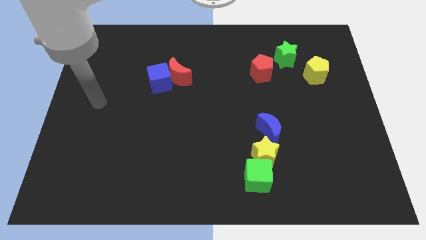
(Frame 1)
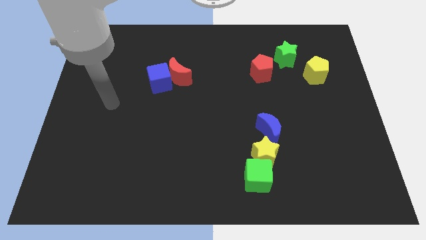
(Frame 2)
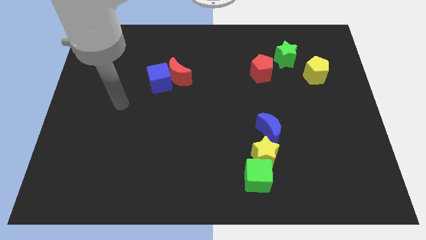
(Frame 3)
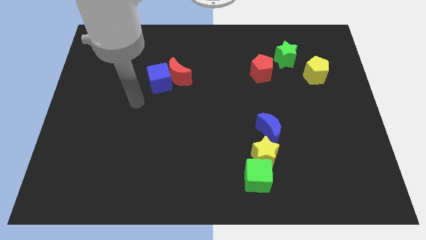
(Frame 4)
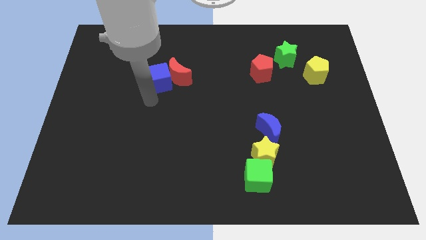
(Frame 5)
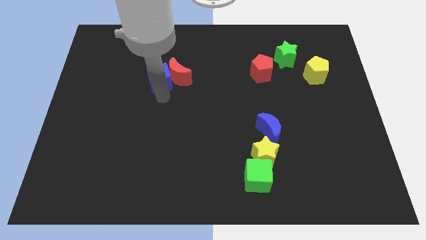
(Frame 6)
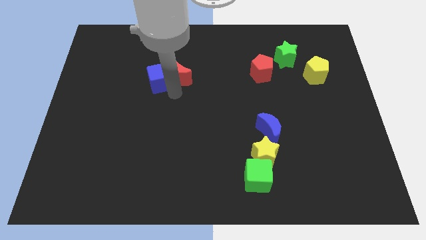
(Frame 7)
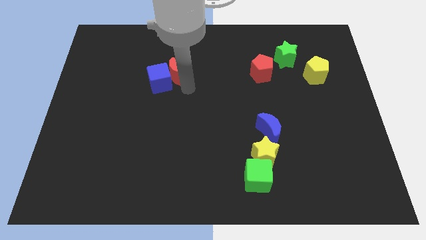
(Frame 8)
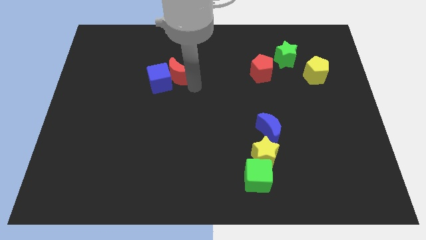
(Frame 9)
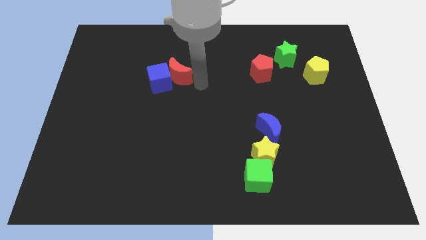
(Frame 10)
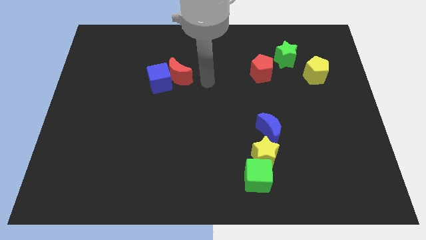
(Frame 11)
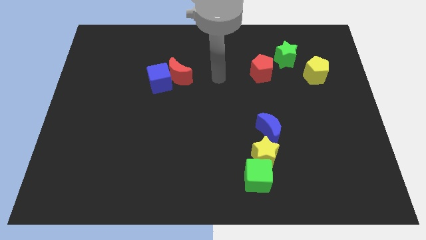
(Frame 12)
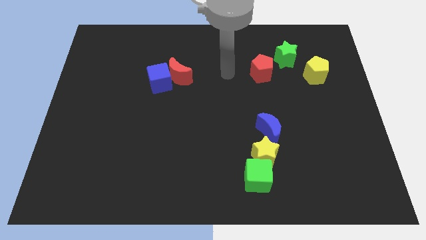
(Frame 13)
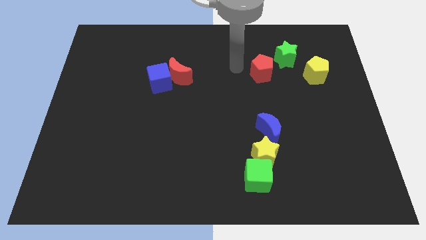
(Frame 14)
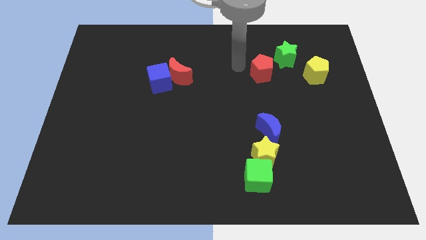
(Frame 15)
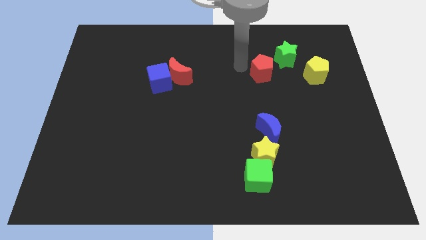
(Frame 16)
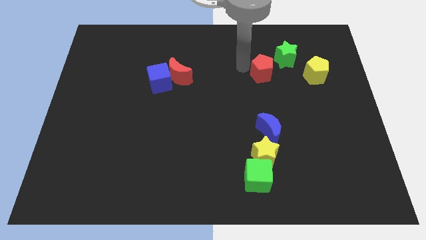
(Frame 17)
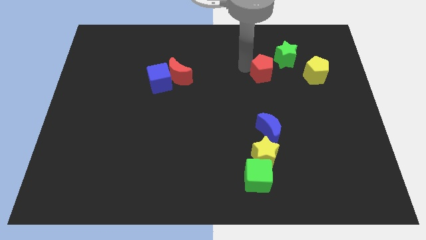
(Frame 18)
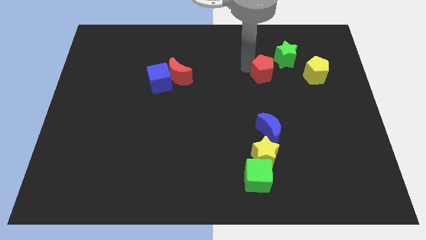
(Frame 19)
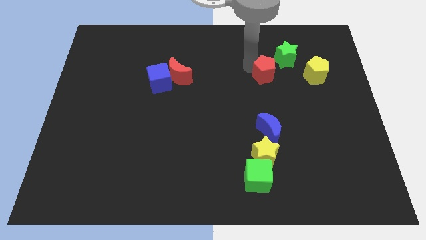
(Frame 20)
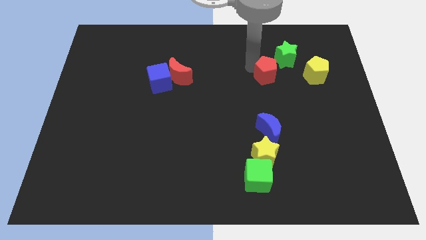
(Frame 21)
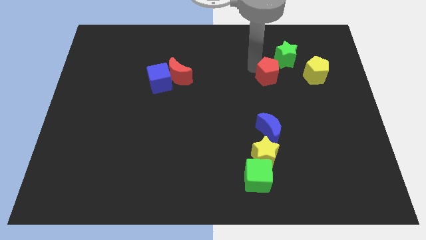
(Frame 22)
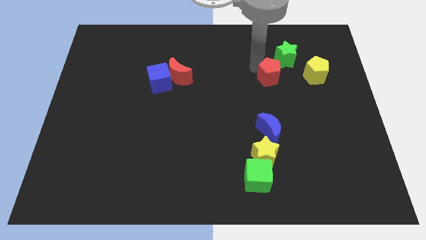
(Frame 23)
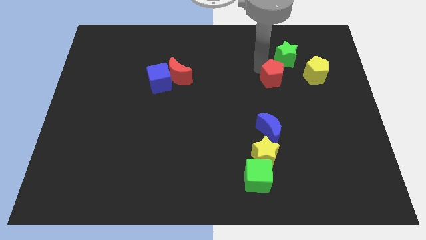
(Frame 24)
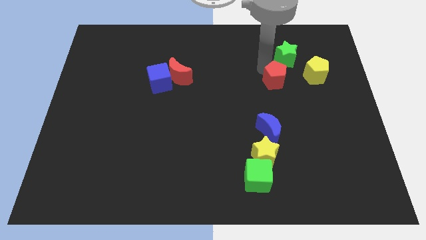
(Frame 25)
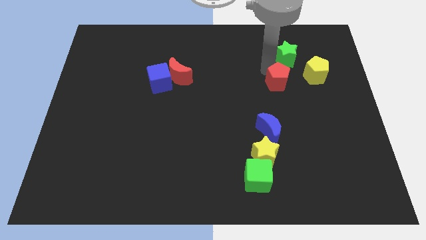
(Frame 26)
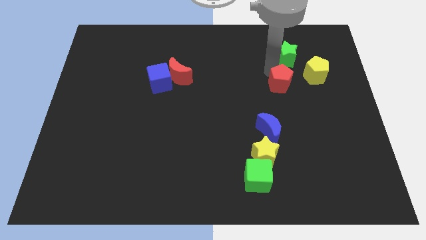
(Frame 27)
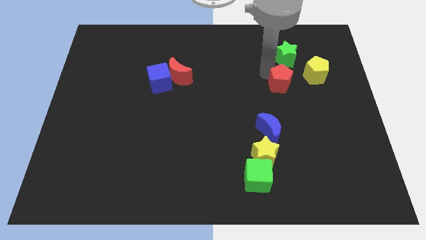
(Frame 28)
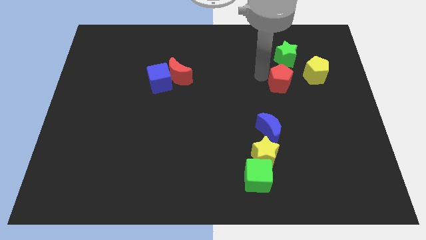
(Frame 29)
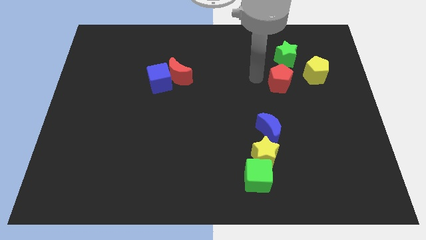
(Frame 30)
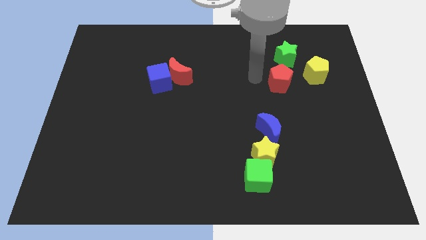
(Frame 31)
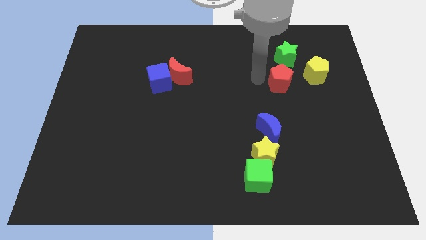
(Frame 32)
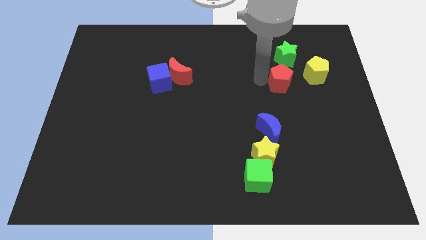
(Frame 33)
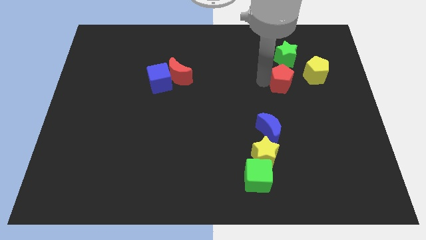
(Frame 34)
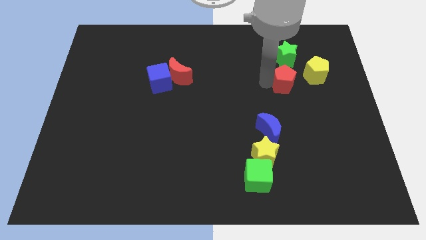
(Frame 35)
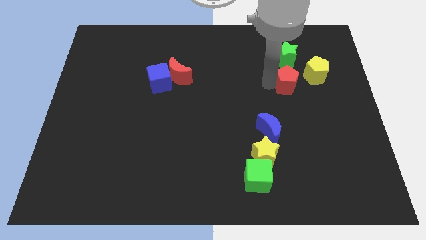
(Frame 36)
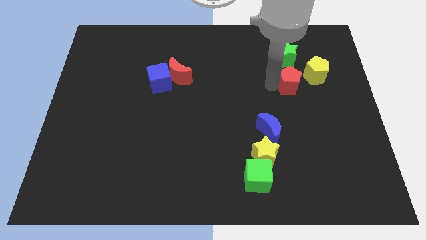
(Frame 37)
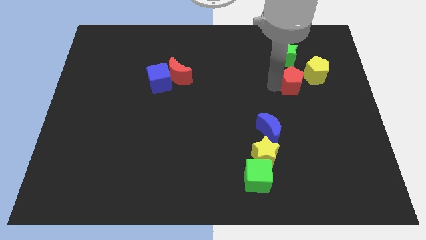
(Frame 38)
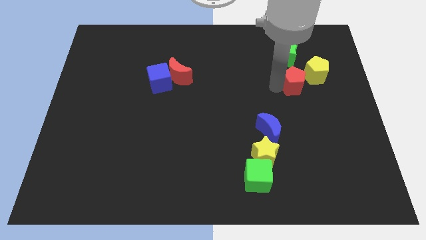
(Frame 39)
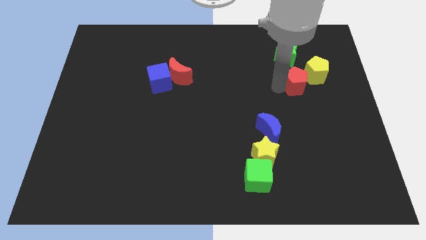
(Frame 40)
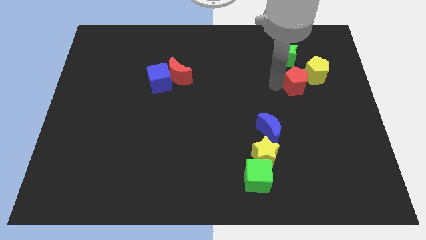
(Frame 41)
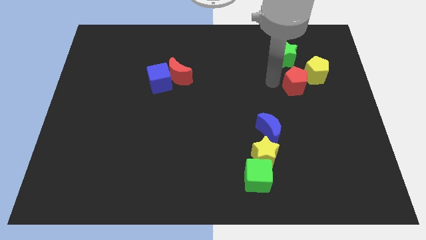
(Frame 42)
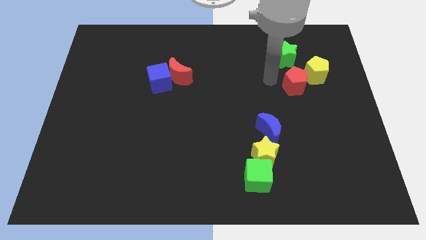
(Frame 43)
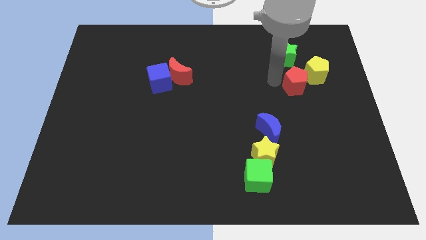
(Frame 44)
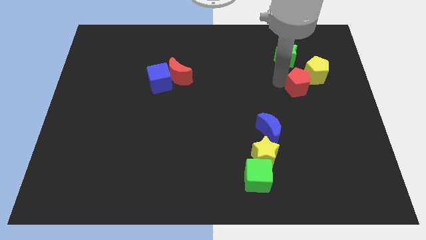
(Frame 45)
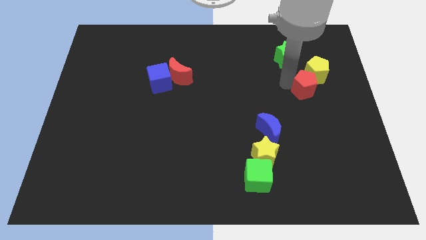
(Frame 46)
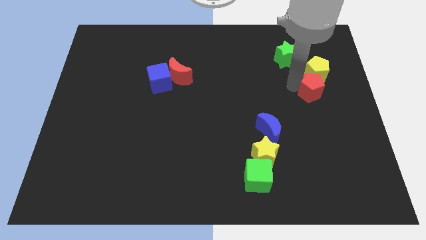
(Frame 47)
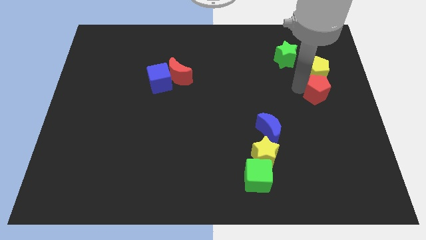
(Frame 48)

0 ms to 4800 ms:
put the red pentagon to the right side

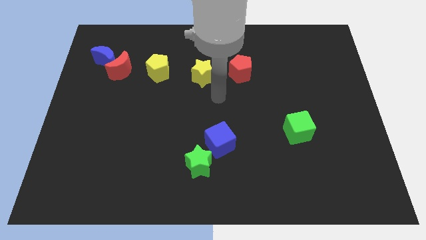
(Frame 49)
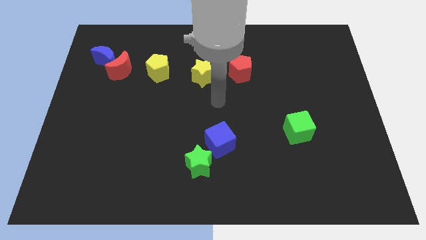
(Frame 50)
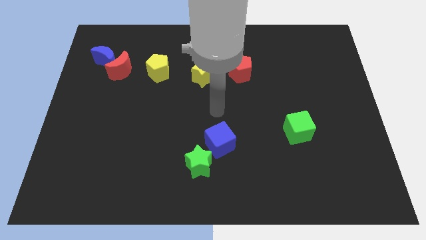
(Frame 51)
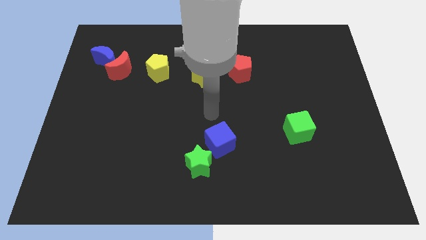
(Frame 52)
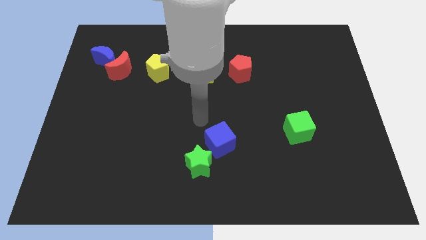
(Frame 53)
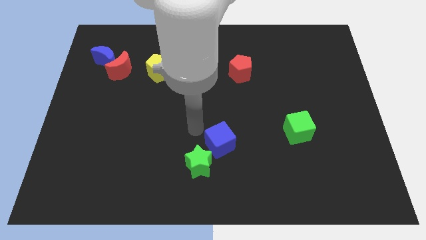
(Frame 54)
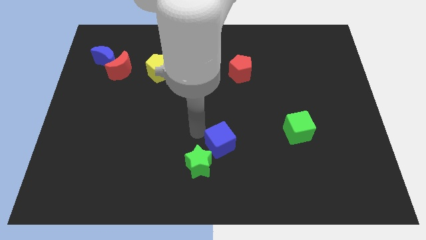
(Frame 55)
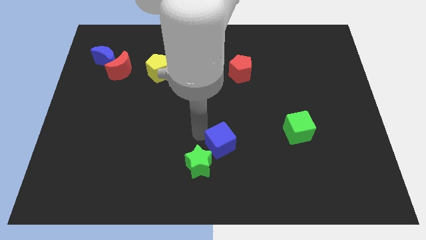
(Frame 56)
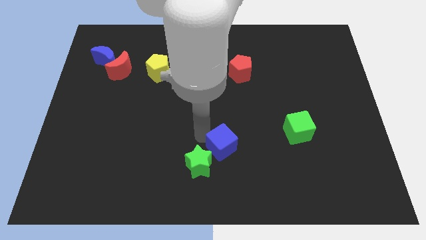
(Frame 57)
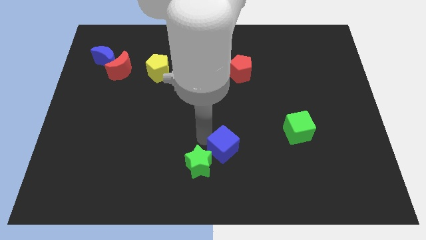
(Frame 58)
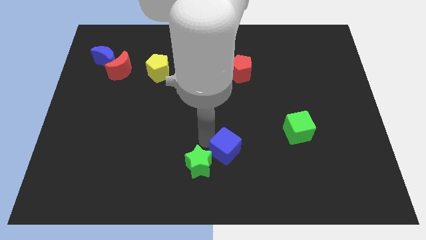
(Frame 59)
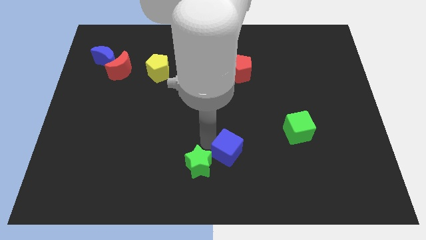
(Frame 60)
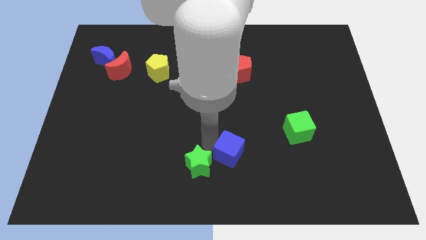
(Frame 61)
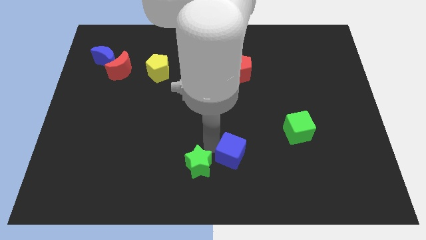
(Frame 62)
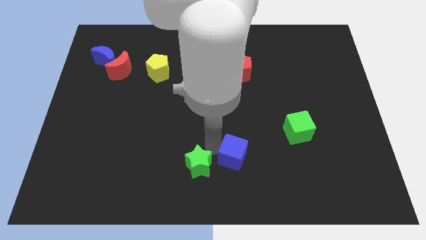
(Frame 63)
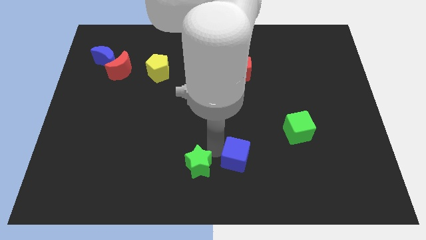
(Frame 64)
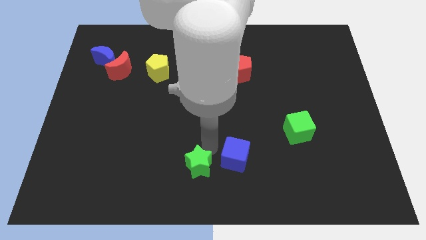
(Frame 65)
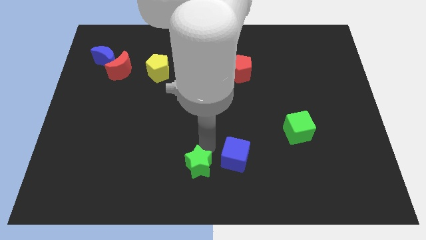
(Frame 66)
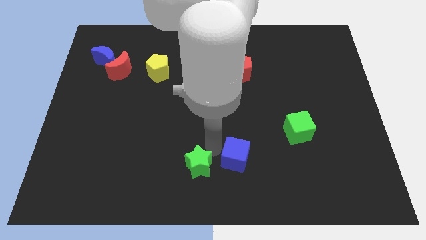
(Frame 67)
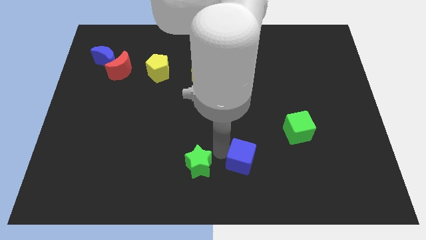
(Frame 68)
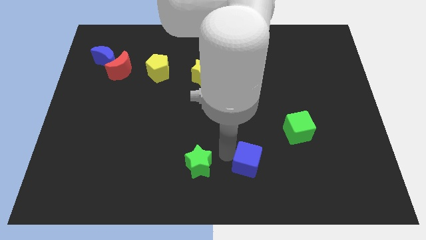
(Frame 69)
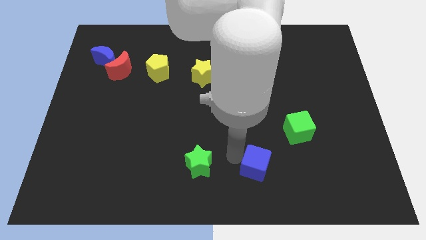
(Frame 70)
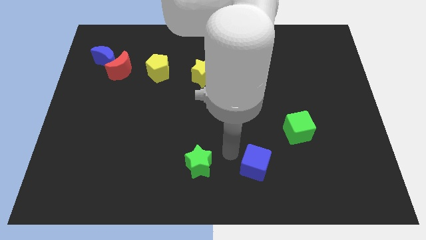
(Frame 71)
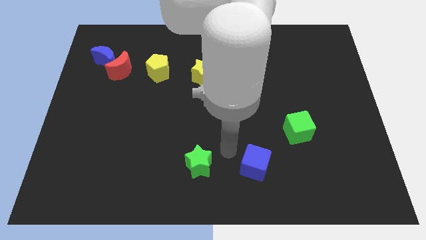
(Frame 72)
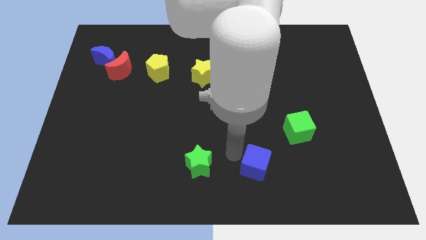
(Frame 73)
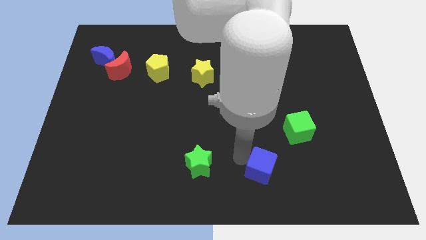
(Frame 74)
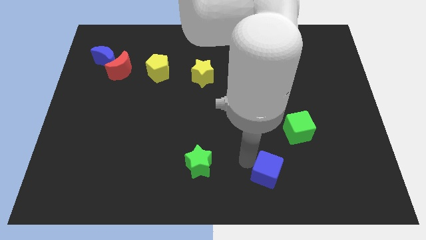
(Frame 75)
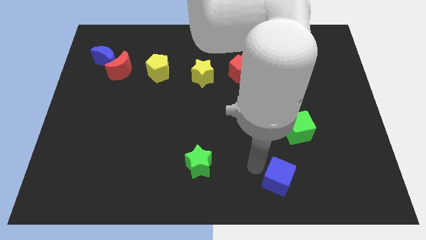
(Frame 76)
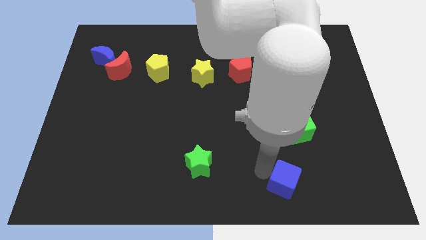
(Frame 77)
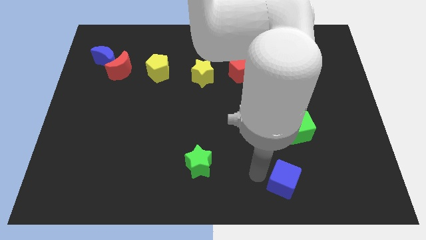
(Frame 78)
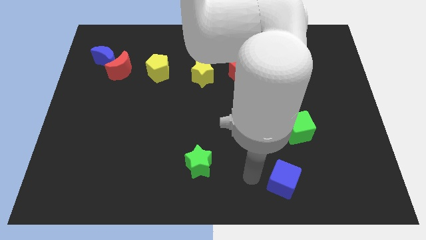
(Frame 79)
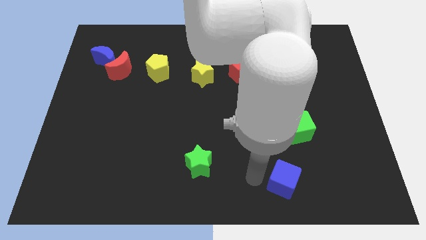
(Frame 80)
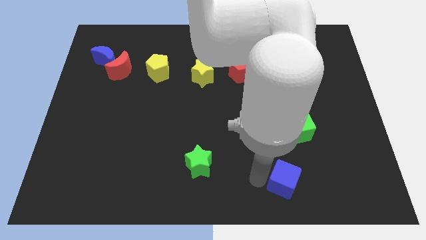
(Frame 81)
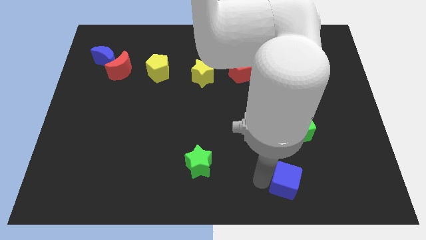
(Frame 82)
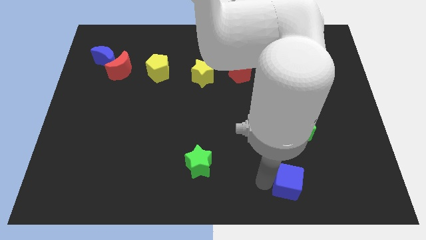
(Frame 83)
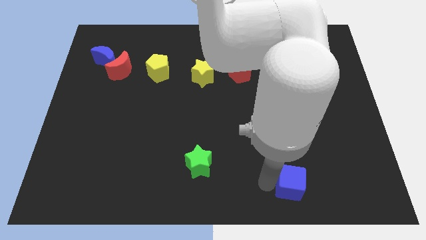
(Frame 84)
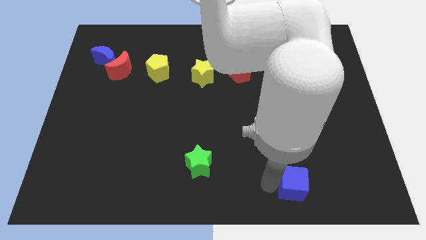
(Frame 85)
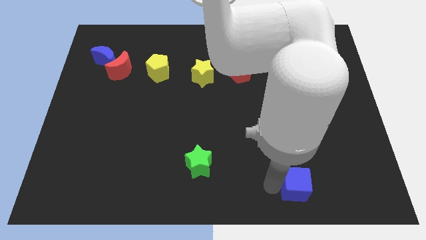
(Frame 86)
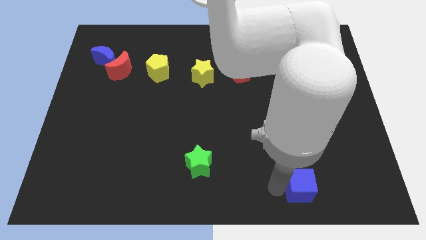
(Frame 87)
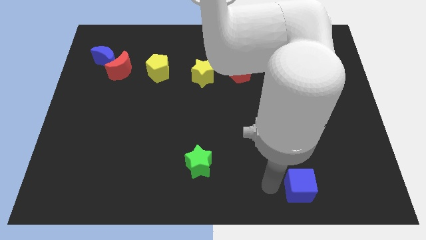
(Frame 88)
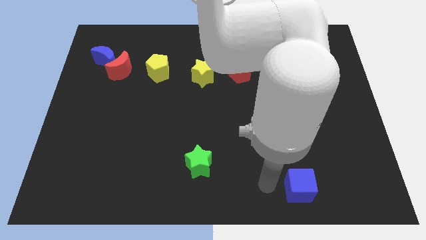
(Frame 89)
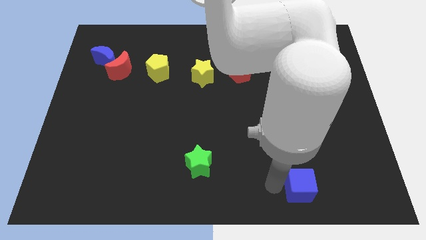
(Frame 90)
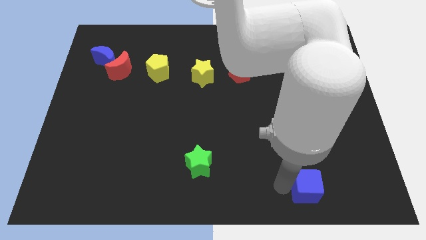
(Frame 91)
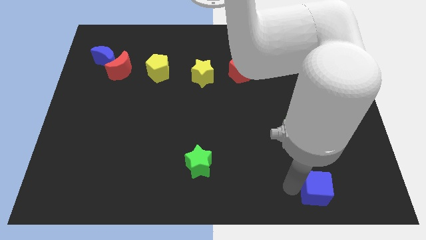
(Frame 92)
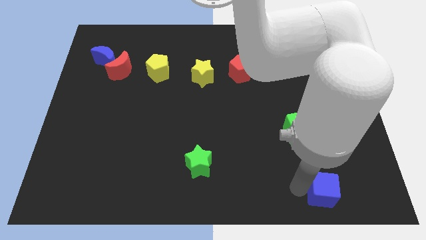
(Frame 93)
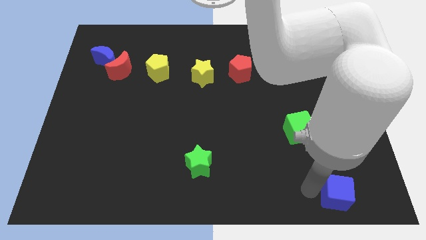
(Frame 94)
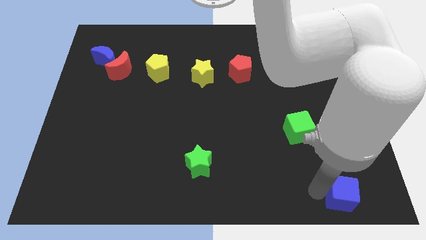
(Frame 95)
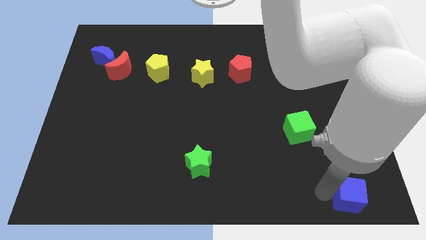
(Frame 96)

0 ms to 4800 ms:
slide the blue cube to the bottom right of the board
